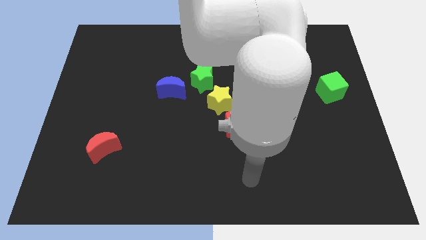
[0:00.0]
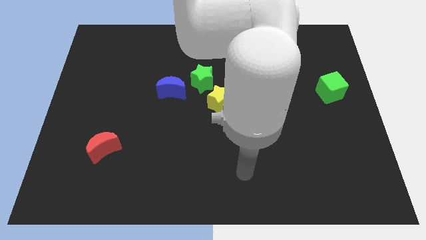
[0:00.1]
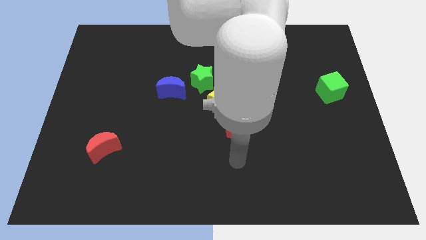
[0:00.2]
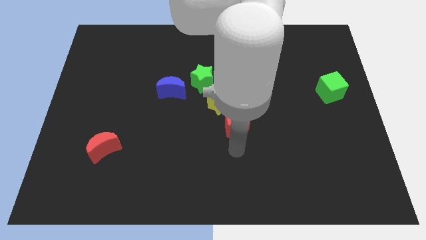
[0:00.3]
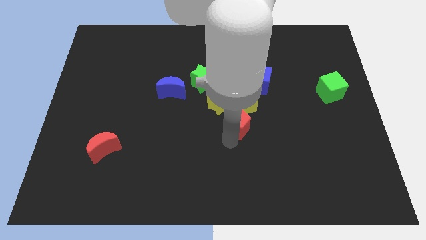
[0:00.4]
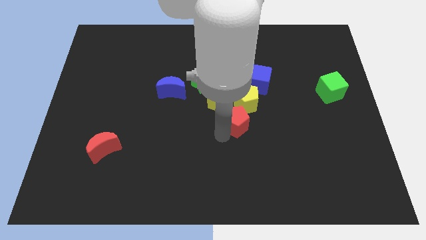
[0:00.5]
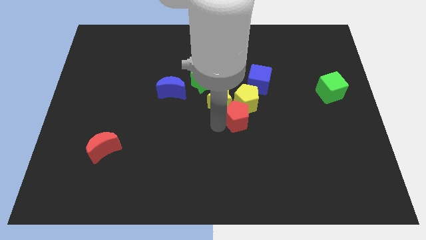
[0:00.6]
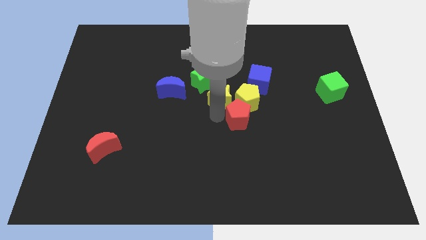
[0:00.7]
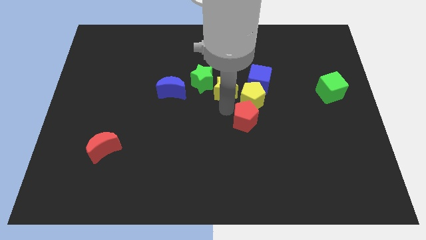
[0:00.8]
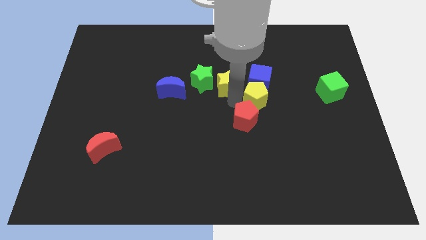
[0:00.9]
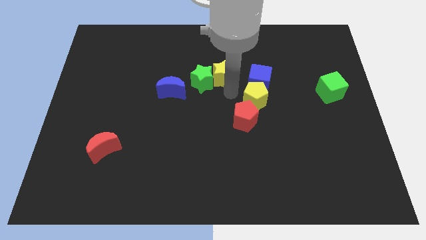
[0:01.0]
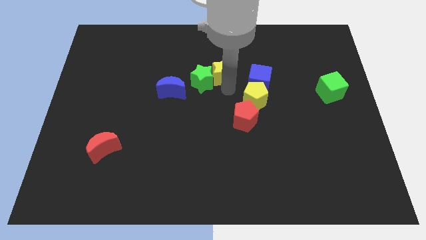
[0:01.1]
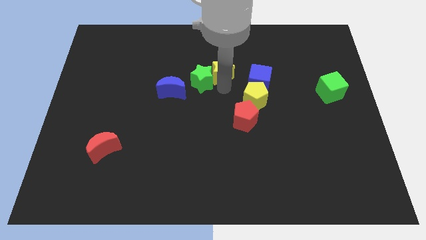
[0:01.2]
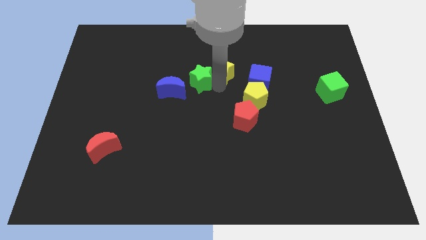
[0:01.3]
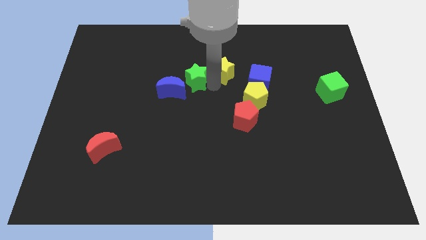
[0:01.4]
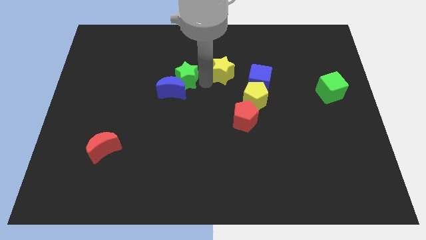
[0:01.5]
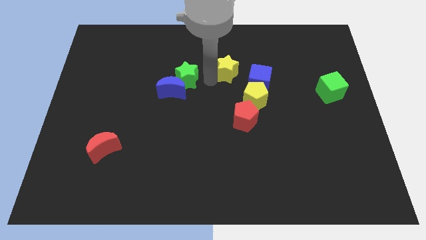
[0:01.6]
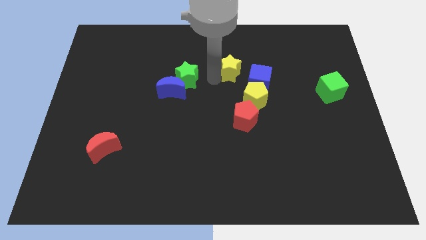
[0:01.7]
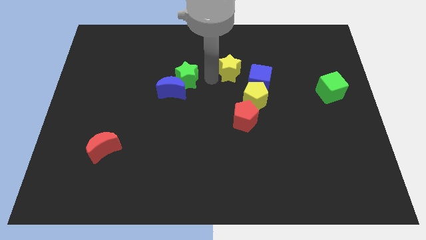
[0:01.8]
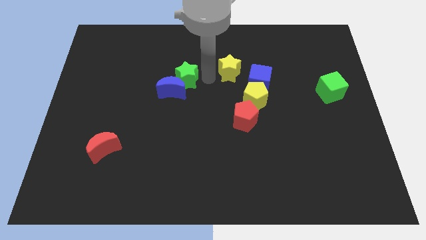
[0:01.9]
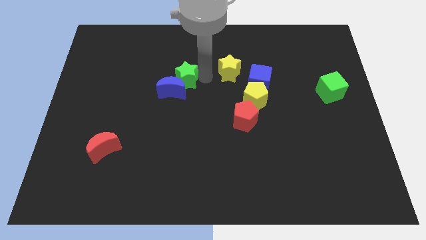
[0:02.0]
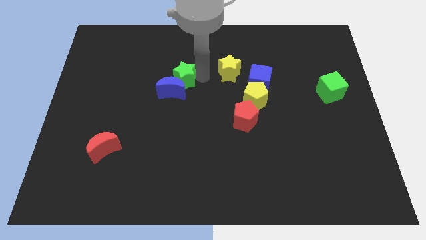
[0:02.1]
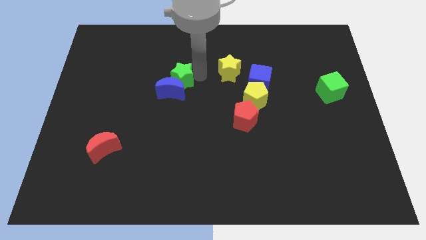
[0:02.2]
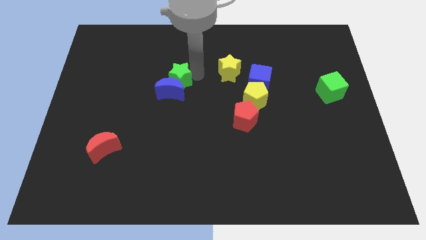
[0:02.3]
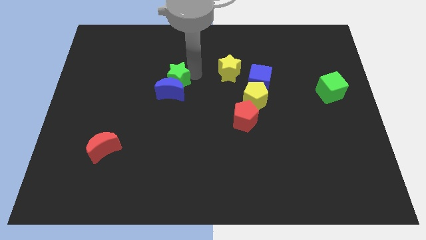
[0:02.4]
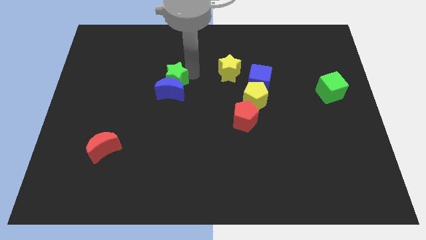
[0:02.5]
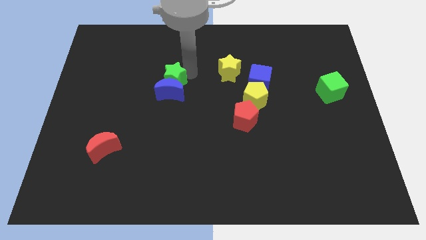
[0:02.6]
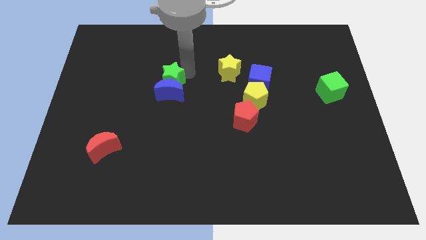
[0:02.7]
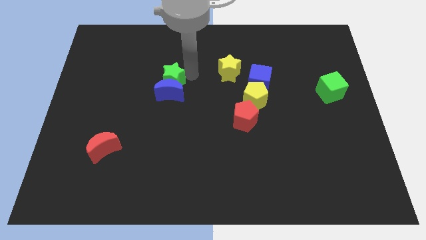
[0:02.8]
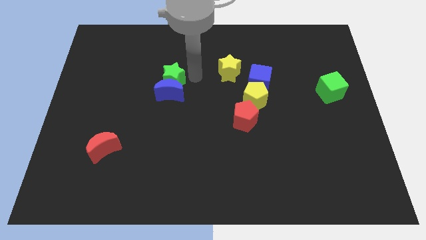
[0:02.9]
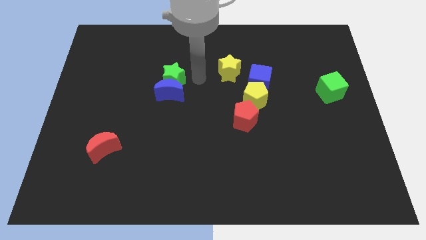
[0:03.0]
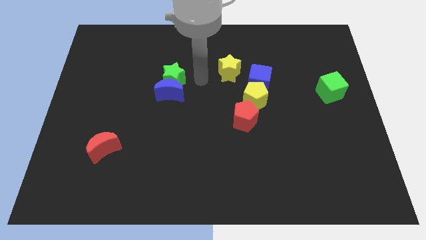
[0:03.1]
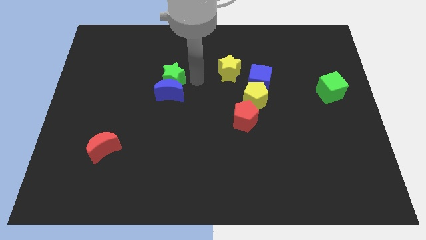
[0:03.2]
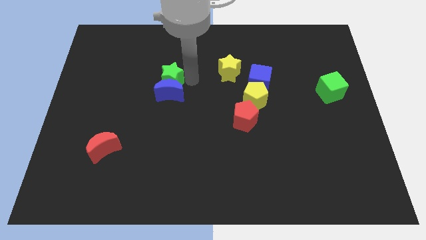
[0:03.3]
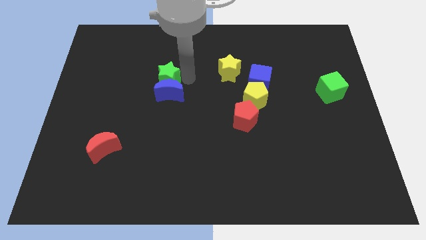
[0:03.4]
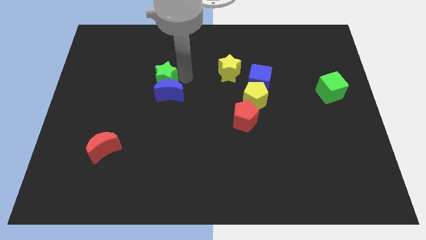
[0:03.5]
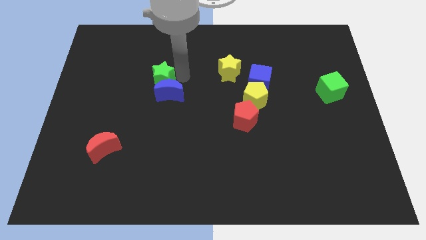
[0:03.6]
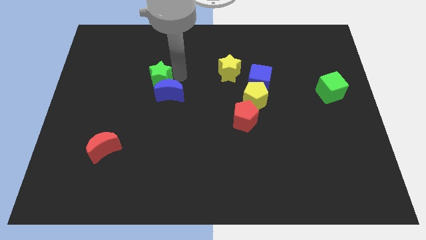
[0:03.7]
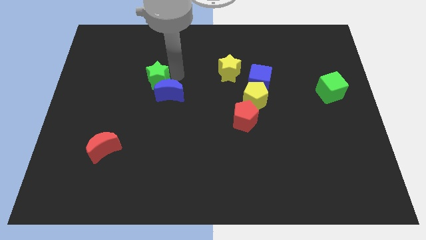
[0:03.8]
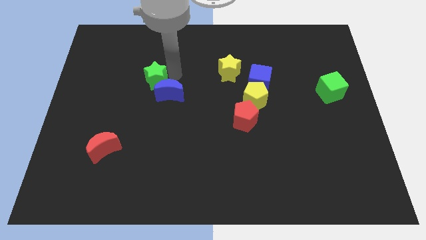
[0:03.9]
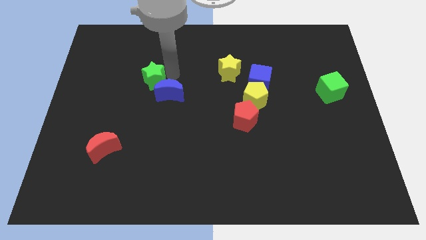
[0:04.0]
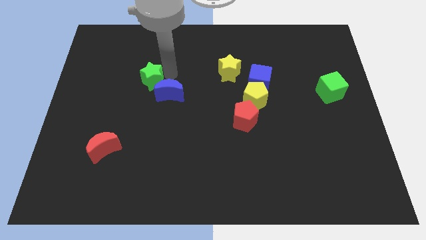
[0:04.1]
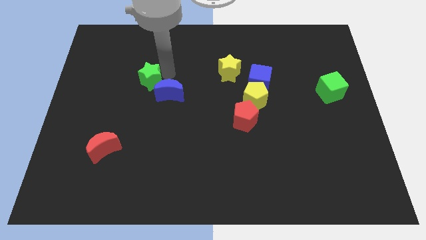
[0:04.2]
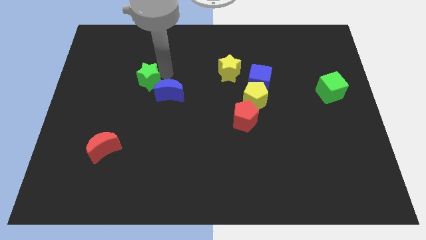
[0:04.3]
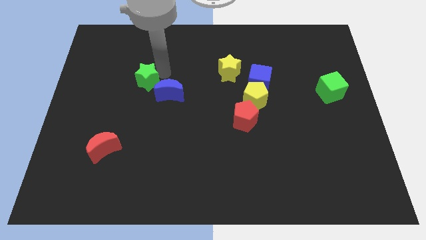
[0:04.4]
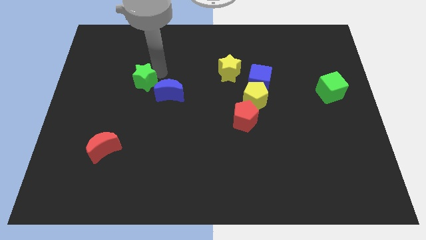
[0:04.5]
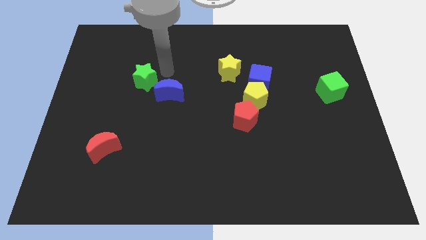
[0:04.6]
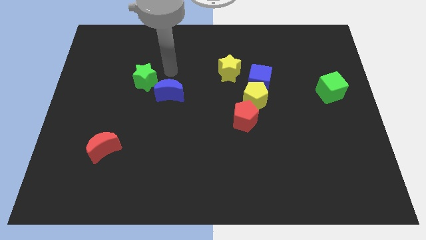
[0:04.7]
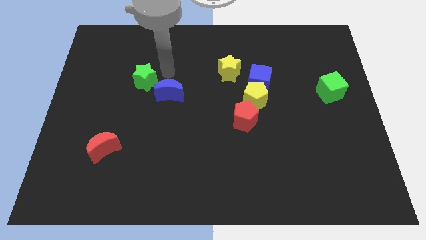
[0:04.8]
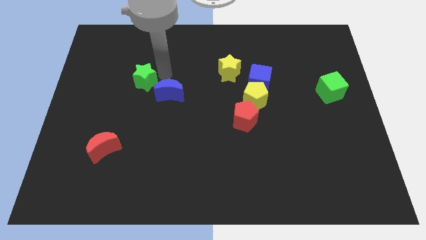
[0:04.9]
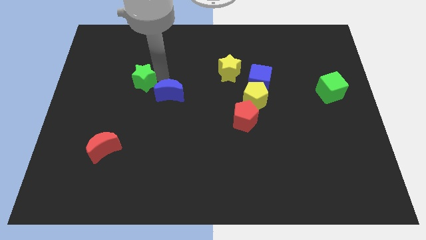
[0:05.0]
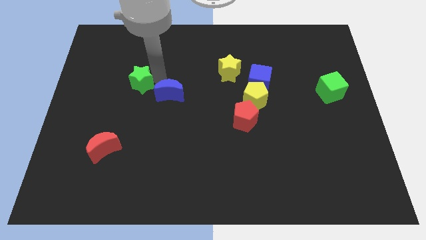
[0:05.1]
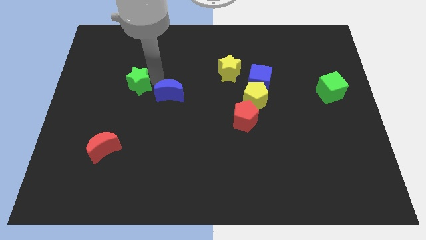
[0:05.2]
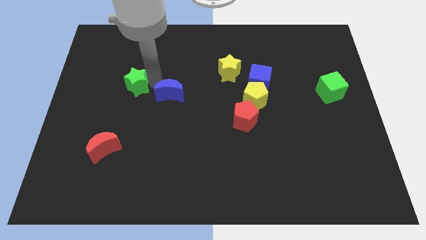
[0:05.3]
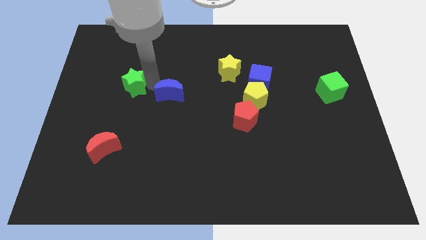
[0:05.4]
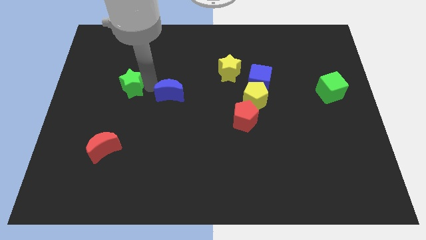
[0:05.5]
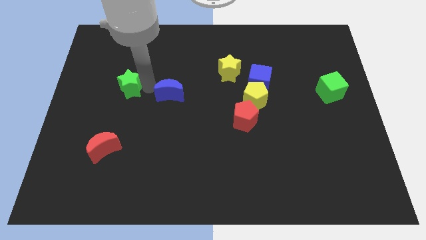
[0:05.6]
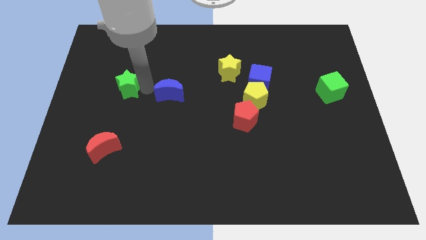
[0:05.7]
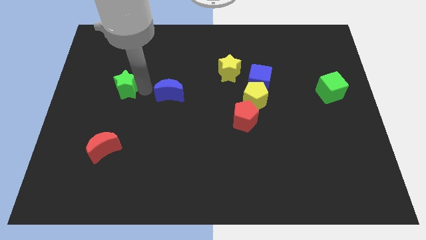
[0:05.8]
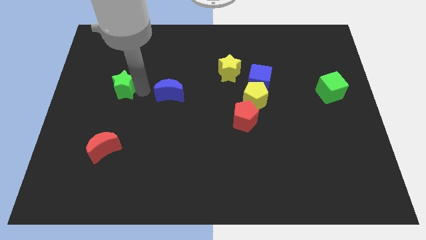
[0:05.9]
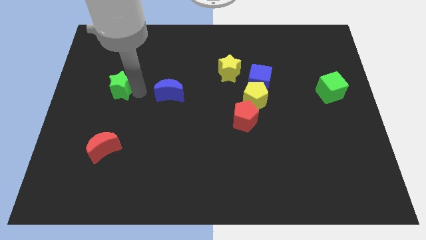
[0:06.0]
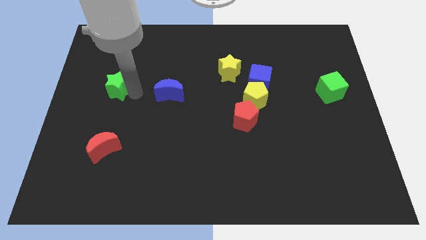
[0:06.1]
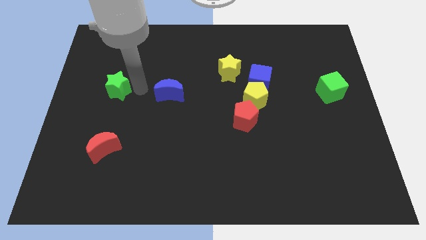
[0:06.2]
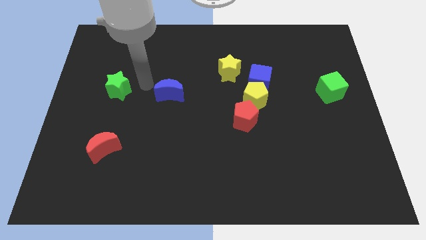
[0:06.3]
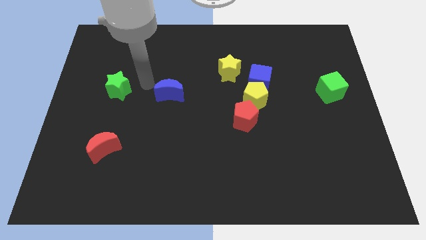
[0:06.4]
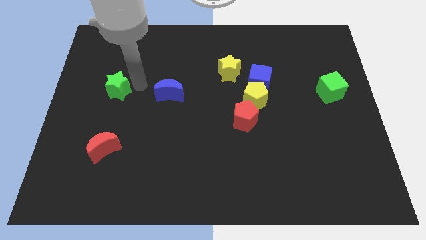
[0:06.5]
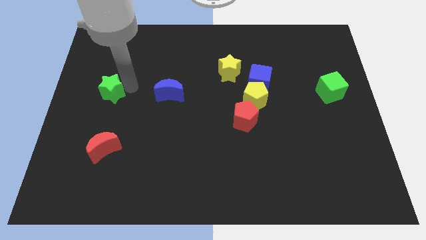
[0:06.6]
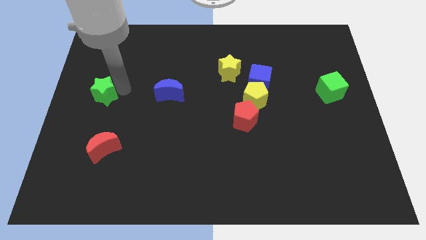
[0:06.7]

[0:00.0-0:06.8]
put the green star to the center left
